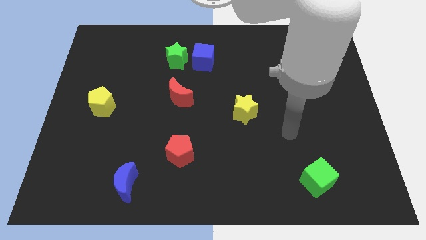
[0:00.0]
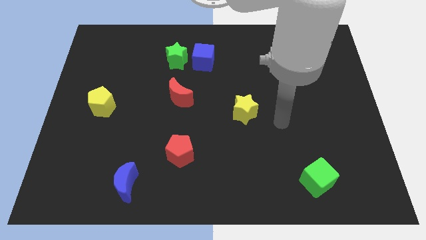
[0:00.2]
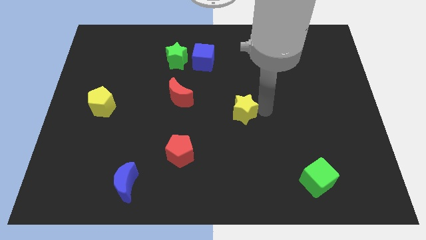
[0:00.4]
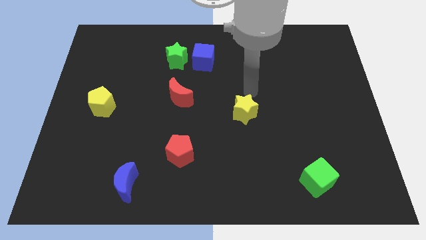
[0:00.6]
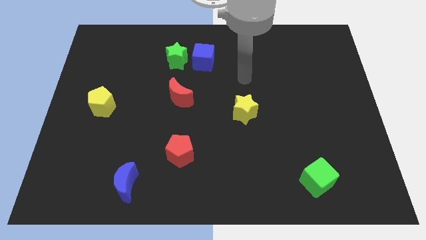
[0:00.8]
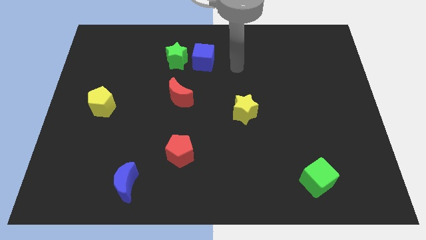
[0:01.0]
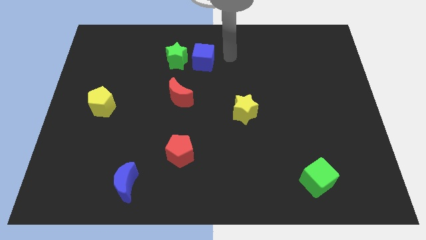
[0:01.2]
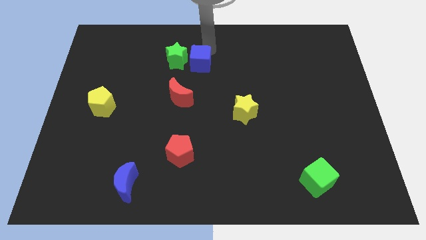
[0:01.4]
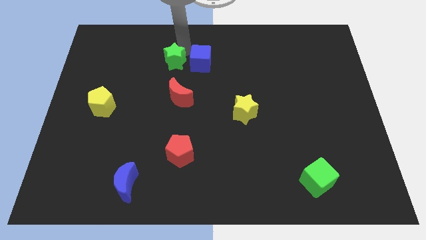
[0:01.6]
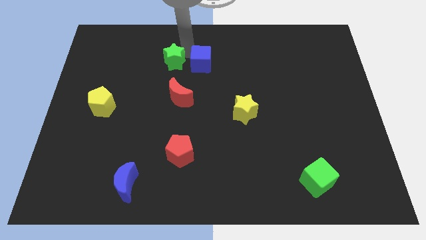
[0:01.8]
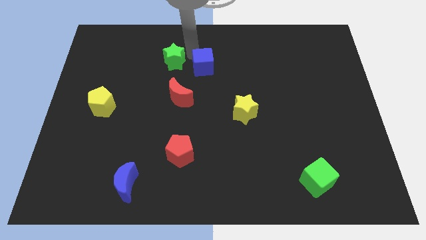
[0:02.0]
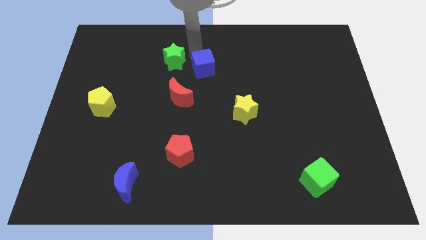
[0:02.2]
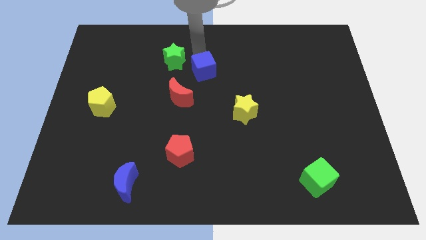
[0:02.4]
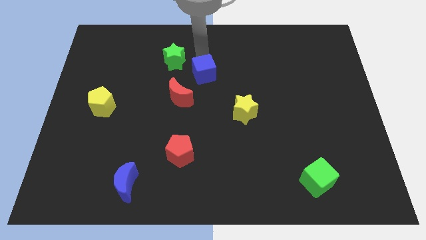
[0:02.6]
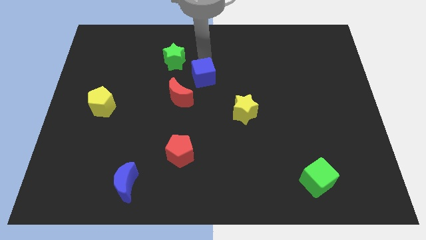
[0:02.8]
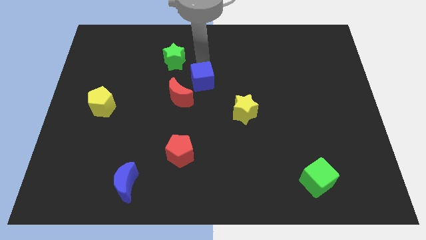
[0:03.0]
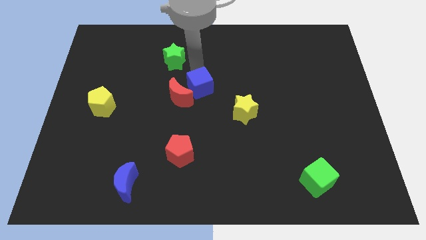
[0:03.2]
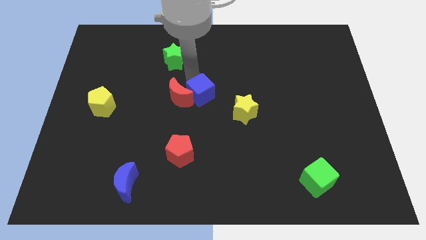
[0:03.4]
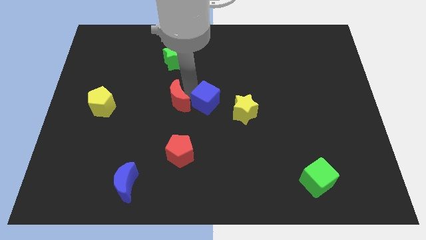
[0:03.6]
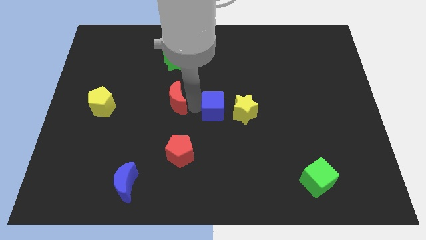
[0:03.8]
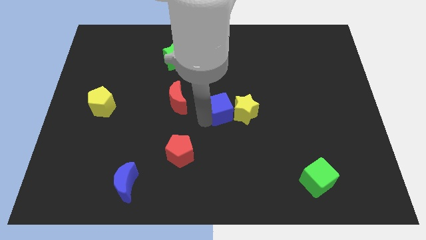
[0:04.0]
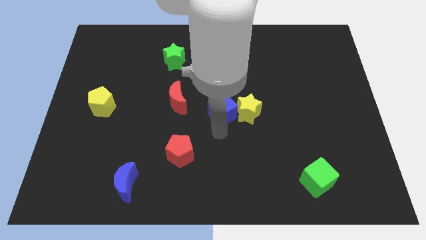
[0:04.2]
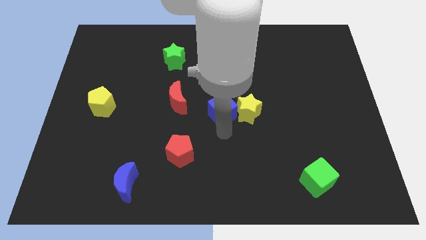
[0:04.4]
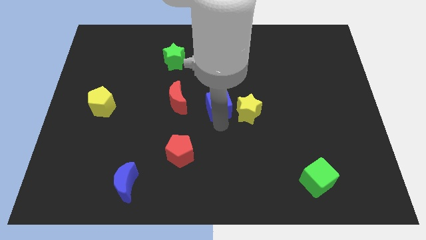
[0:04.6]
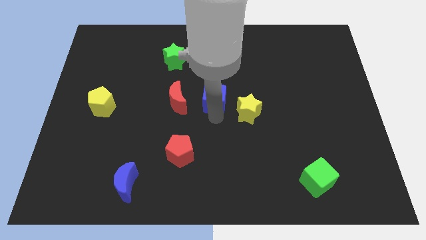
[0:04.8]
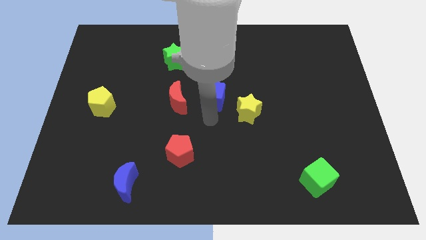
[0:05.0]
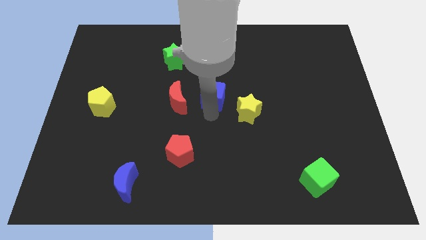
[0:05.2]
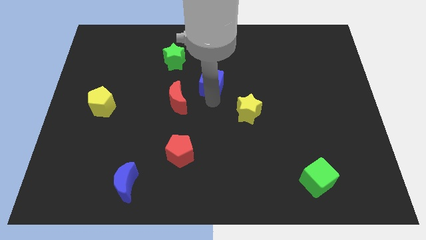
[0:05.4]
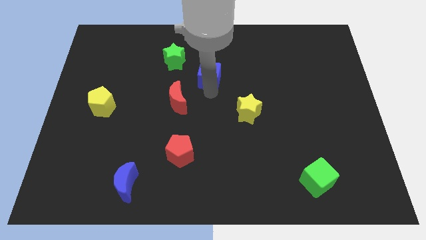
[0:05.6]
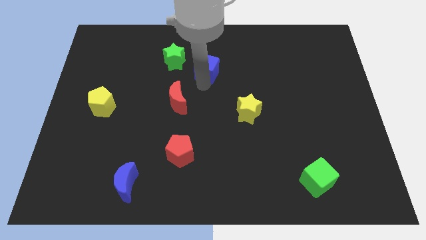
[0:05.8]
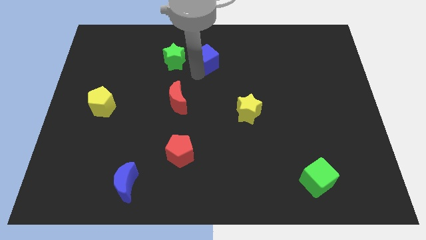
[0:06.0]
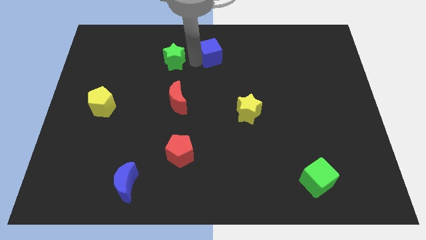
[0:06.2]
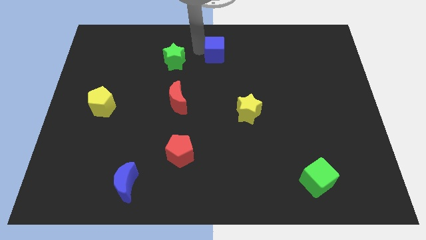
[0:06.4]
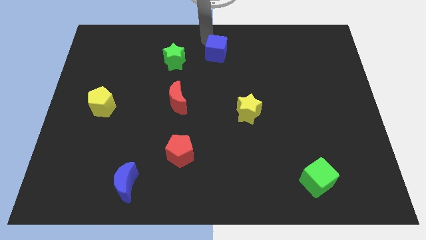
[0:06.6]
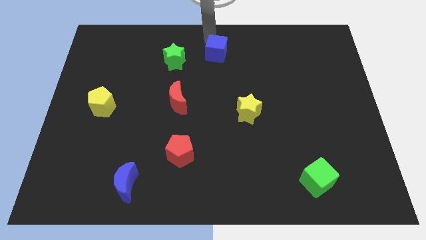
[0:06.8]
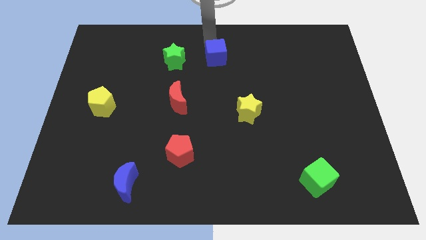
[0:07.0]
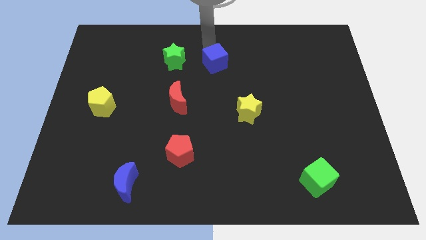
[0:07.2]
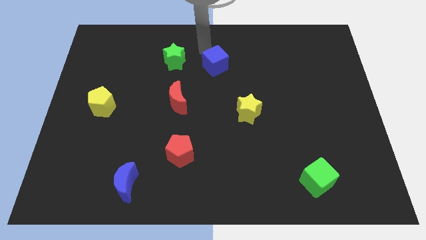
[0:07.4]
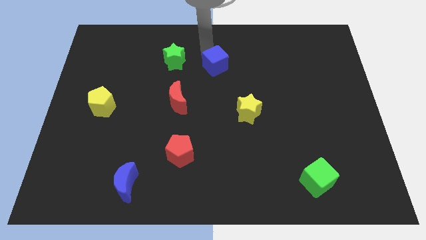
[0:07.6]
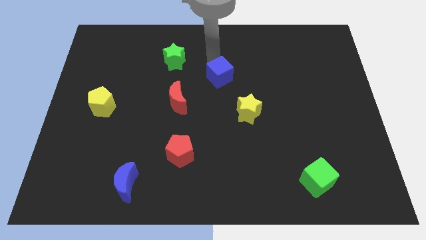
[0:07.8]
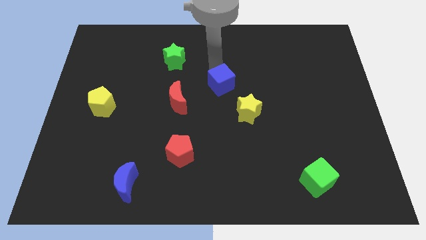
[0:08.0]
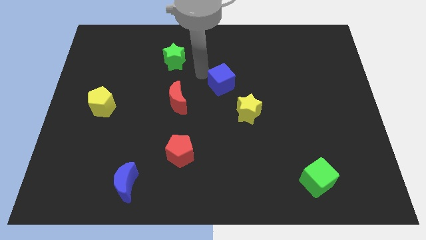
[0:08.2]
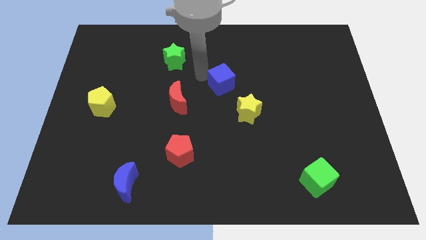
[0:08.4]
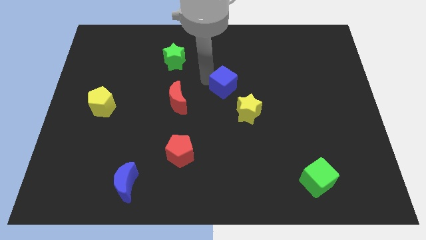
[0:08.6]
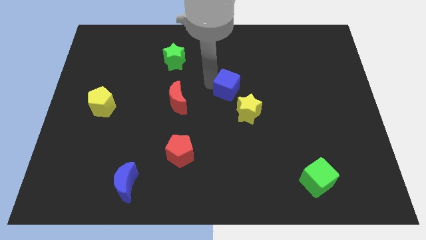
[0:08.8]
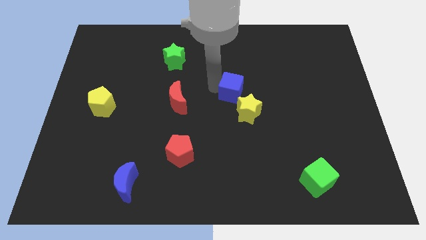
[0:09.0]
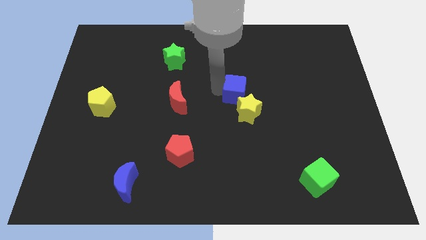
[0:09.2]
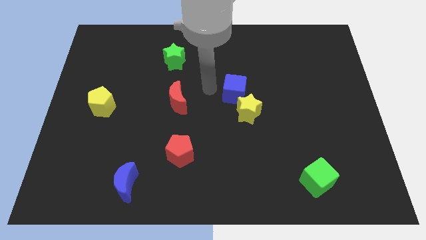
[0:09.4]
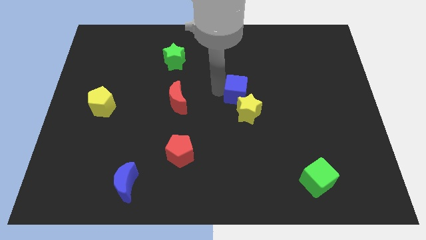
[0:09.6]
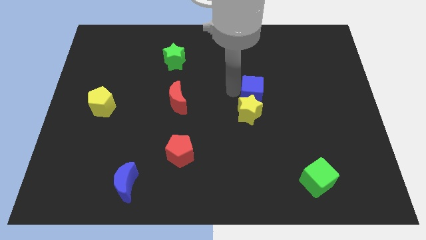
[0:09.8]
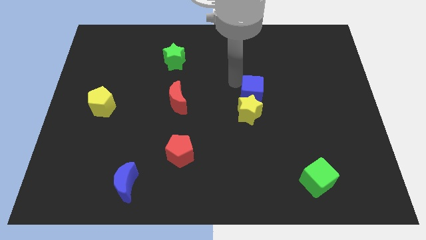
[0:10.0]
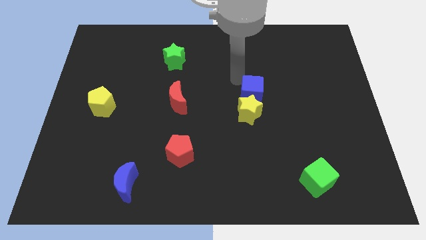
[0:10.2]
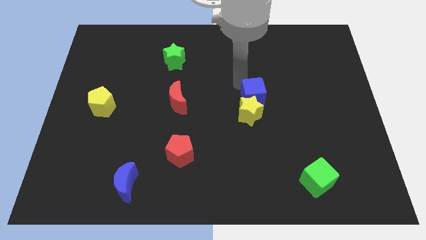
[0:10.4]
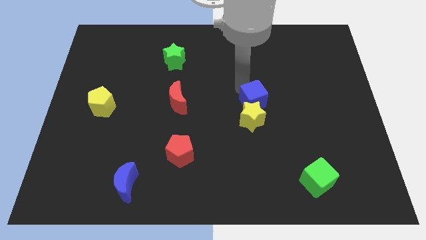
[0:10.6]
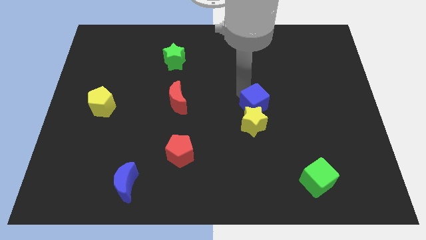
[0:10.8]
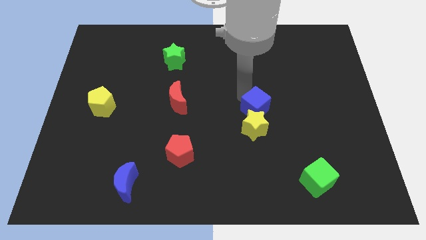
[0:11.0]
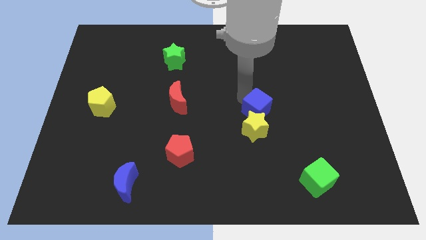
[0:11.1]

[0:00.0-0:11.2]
slide the blue cube downwards and then to the right

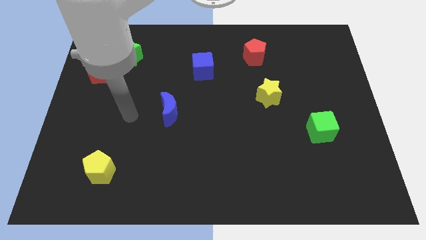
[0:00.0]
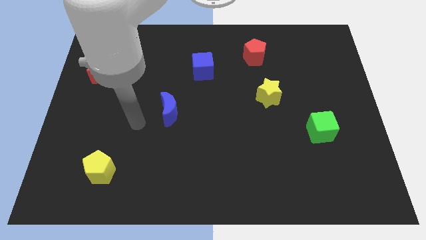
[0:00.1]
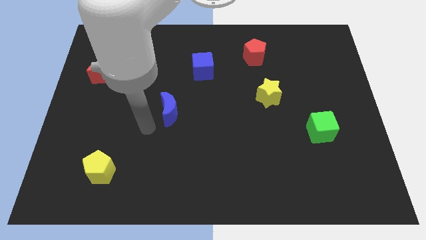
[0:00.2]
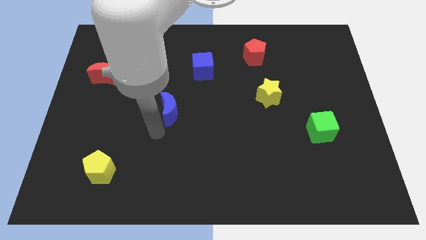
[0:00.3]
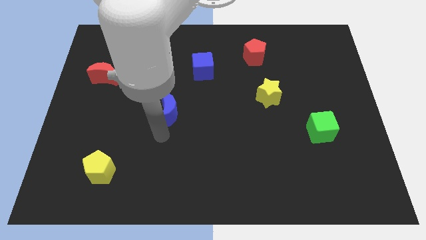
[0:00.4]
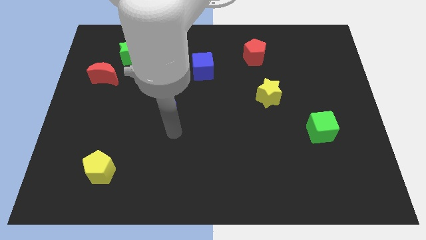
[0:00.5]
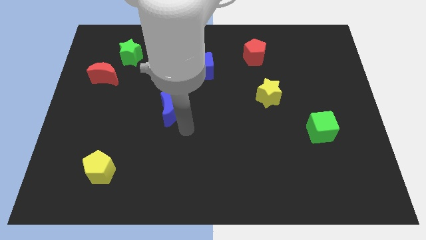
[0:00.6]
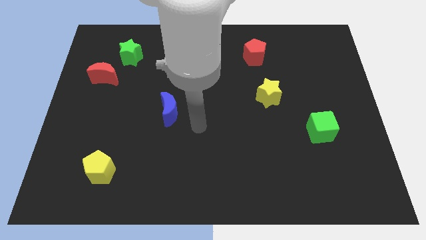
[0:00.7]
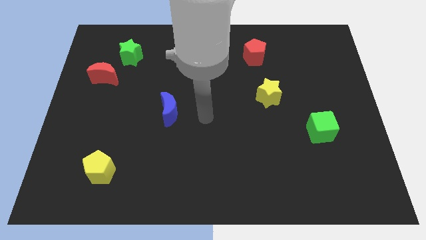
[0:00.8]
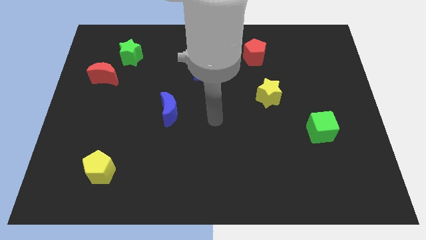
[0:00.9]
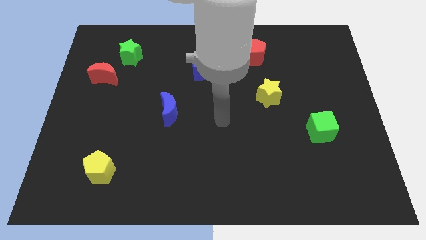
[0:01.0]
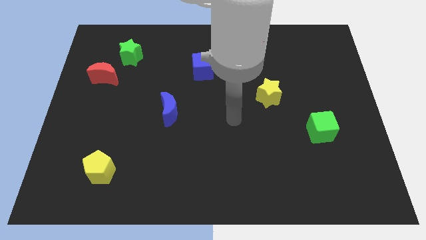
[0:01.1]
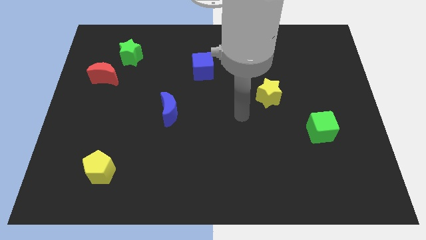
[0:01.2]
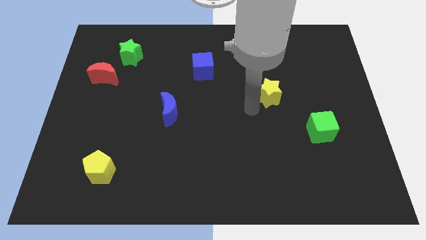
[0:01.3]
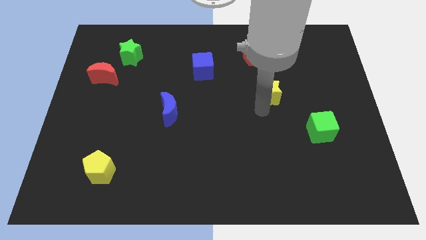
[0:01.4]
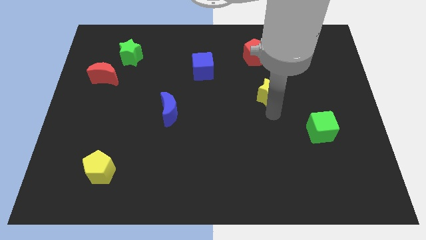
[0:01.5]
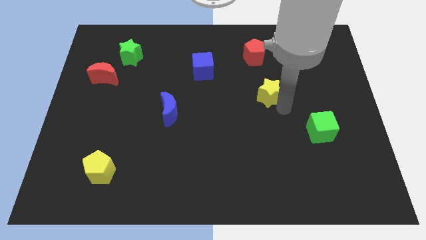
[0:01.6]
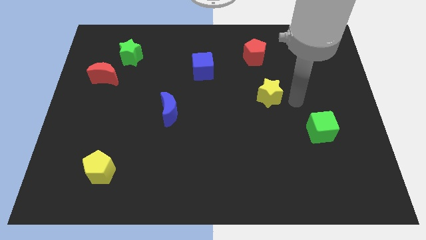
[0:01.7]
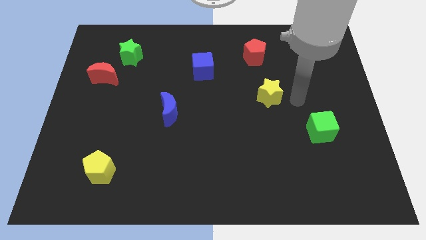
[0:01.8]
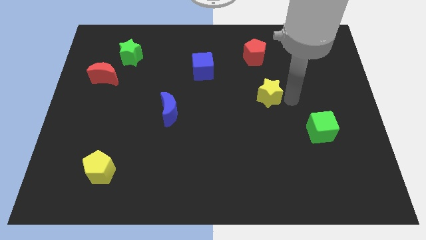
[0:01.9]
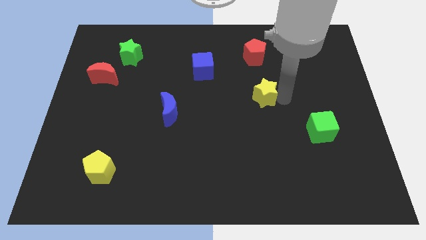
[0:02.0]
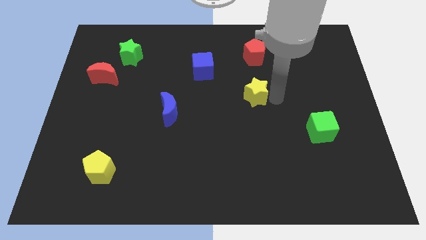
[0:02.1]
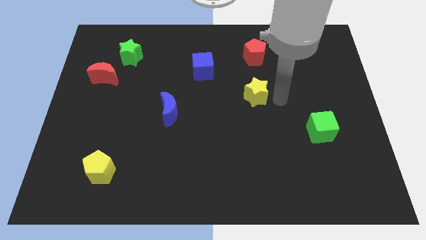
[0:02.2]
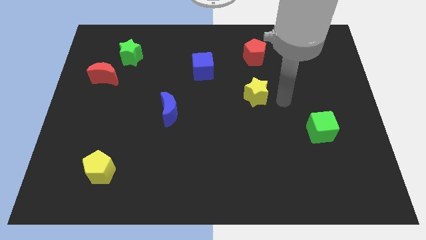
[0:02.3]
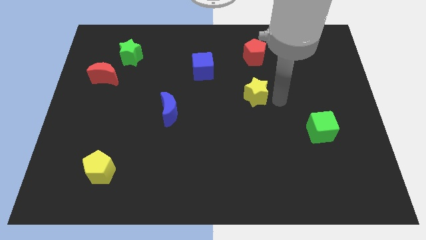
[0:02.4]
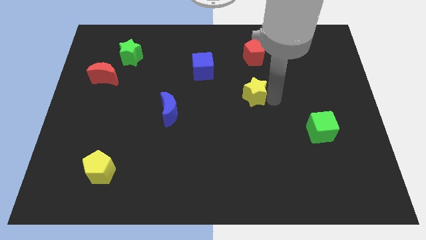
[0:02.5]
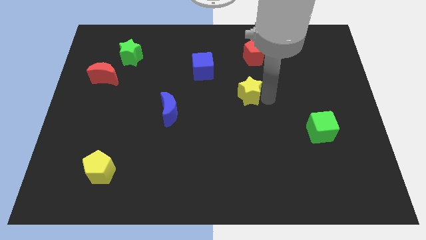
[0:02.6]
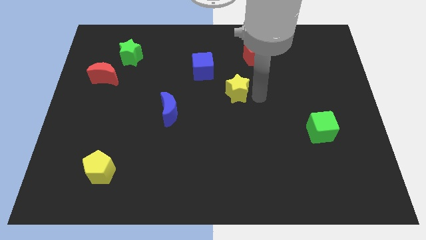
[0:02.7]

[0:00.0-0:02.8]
move the yellow star somewhat left

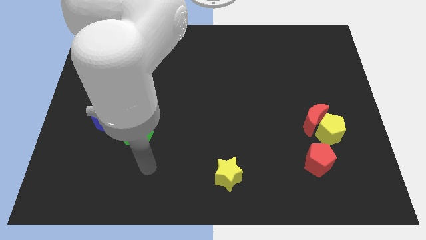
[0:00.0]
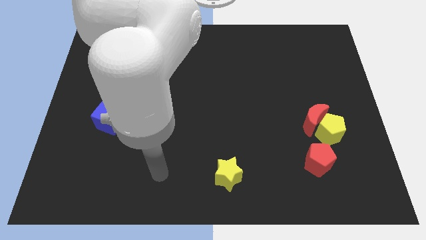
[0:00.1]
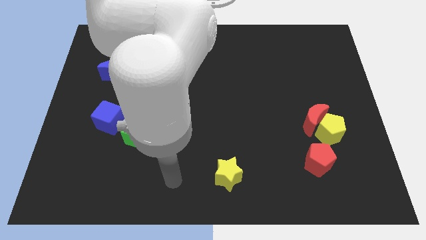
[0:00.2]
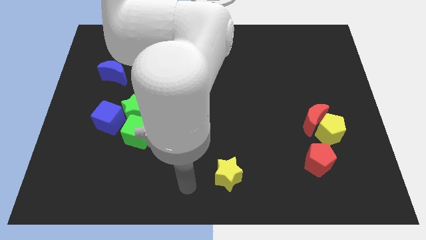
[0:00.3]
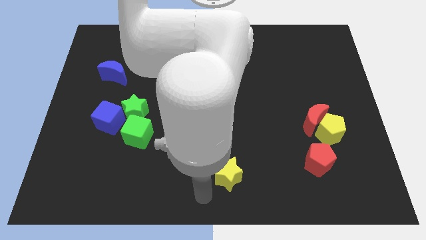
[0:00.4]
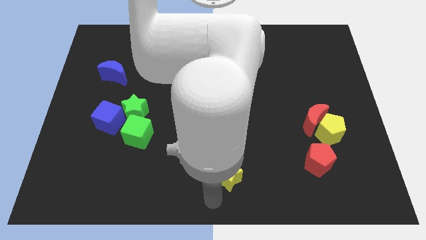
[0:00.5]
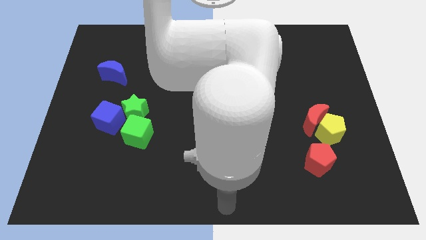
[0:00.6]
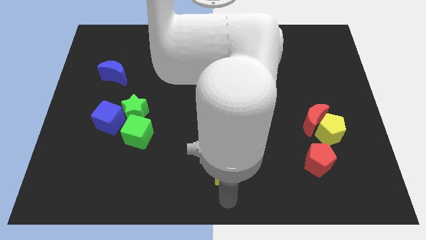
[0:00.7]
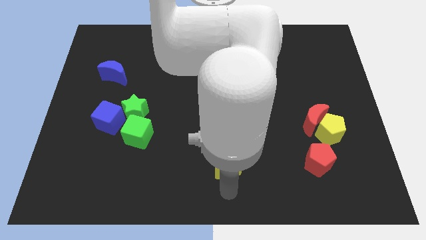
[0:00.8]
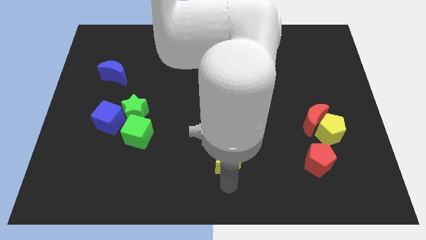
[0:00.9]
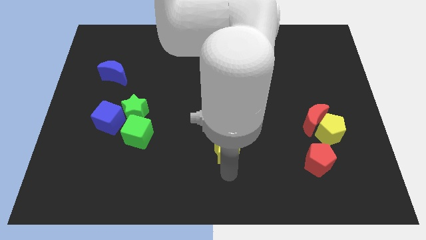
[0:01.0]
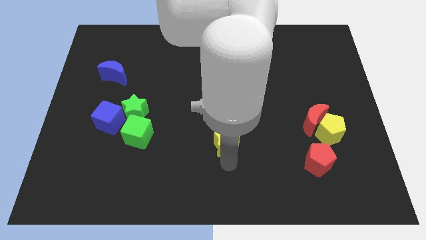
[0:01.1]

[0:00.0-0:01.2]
move the yellow star somewhat upwards
